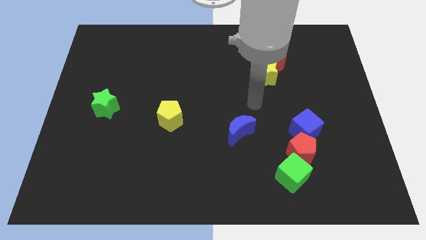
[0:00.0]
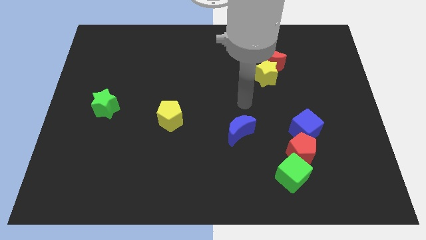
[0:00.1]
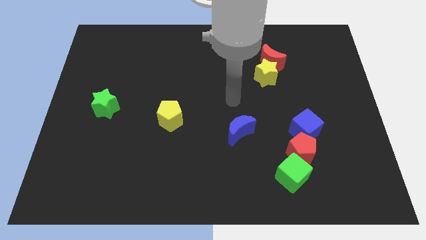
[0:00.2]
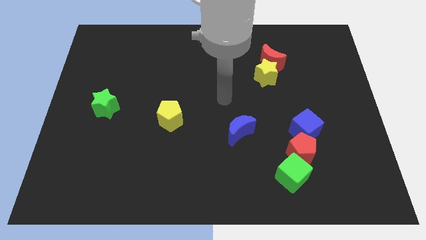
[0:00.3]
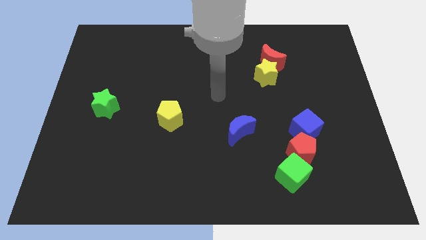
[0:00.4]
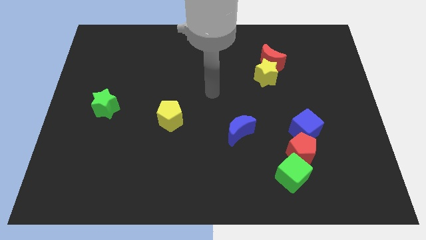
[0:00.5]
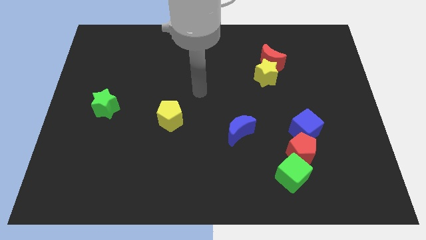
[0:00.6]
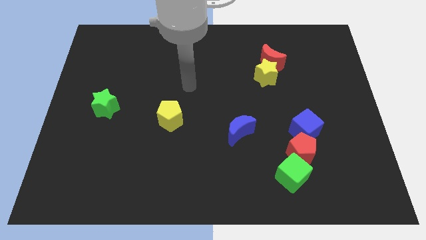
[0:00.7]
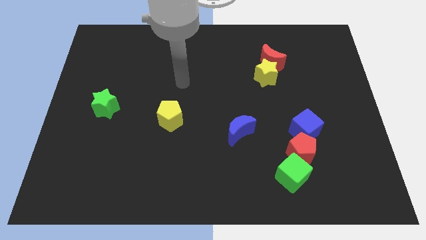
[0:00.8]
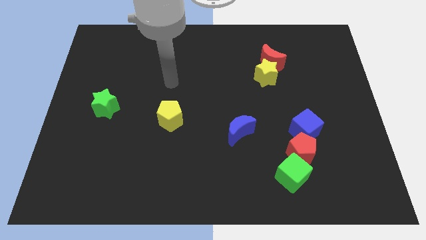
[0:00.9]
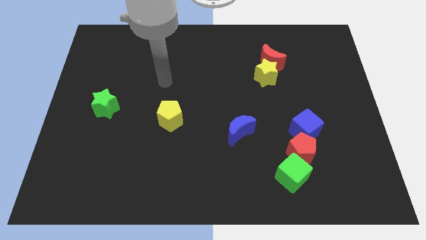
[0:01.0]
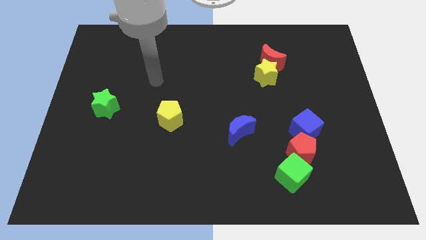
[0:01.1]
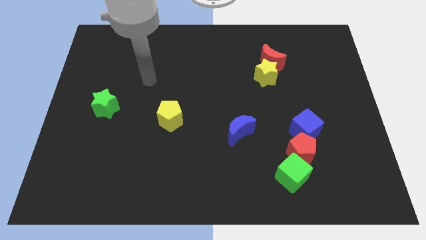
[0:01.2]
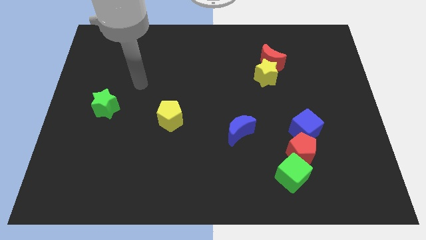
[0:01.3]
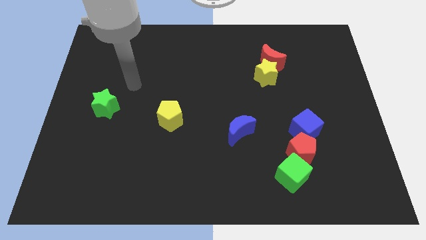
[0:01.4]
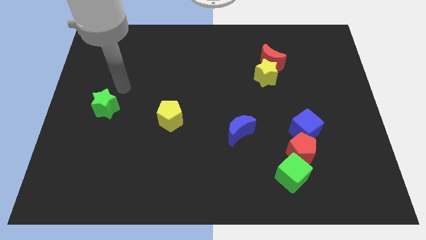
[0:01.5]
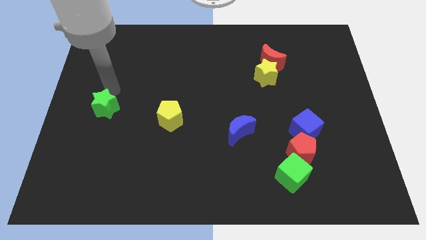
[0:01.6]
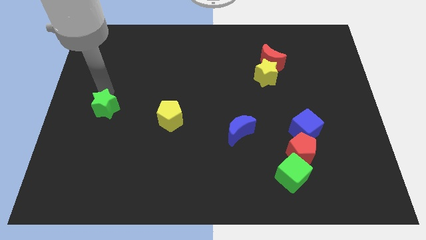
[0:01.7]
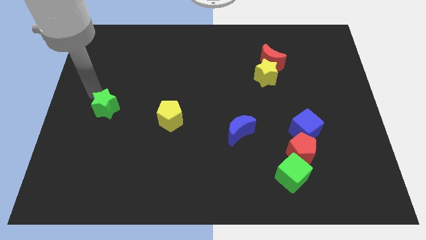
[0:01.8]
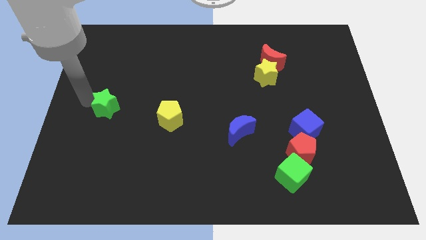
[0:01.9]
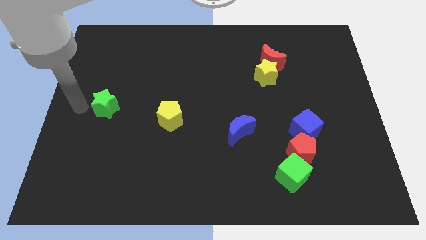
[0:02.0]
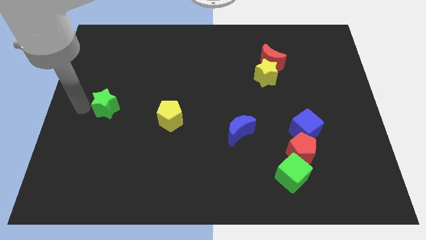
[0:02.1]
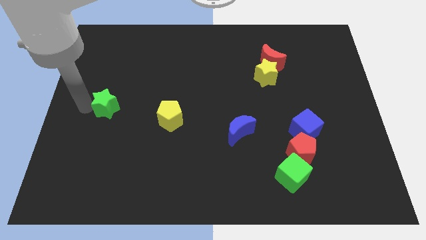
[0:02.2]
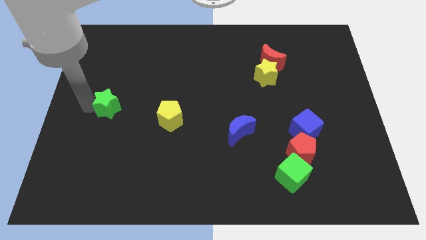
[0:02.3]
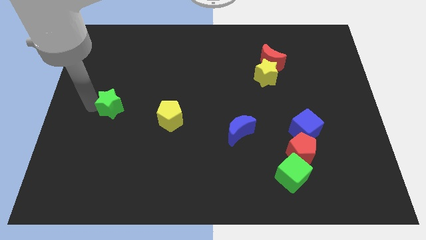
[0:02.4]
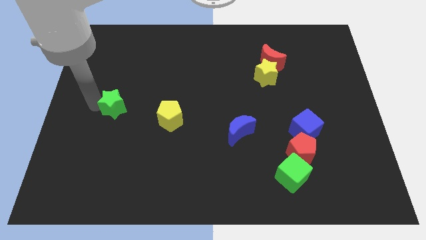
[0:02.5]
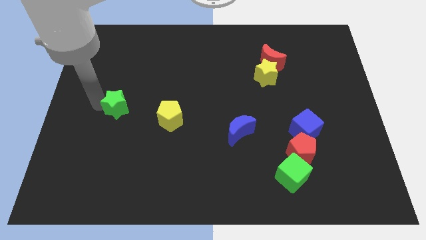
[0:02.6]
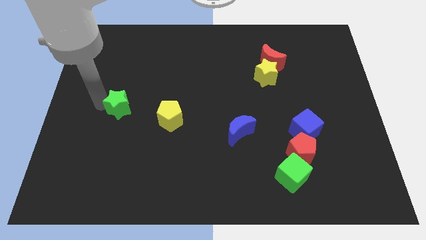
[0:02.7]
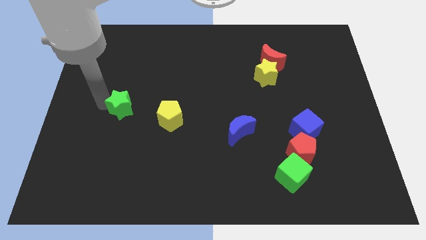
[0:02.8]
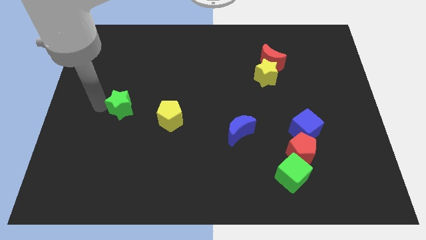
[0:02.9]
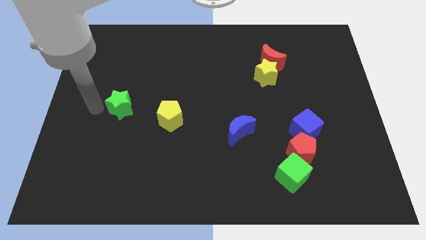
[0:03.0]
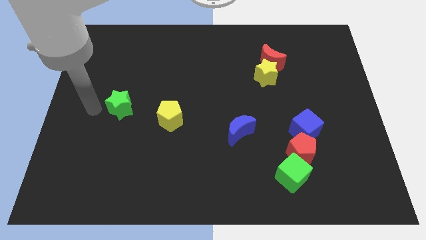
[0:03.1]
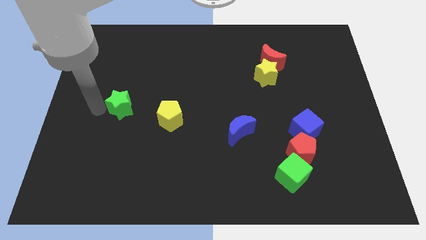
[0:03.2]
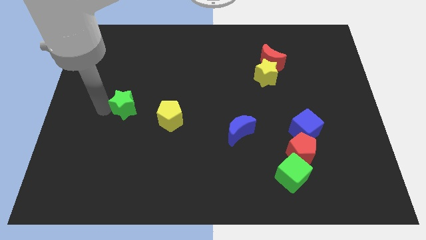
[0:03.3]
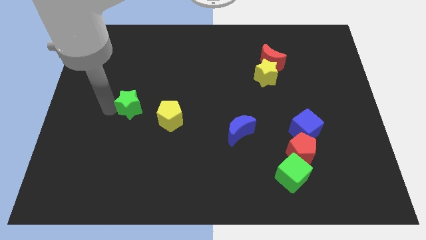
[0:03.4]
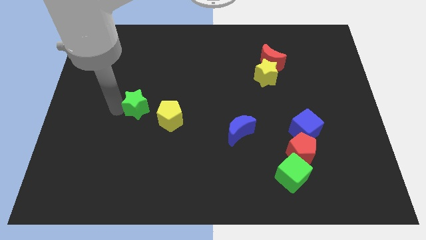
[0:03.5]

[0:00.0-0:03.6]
slide the green star somewhat to the right

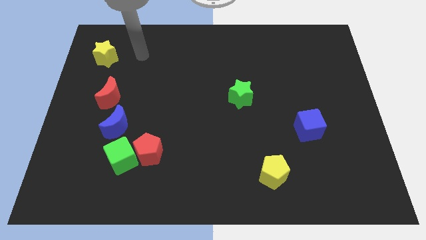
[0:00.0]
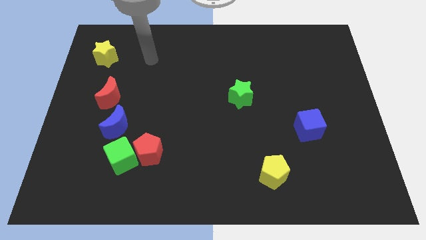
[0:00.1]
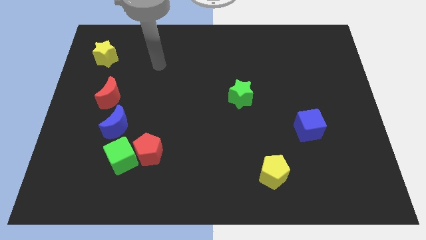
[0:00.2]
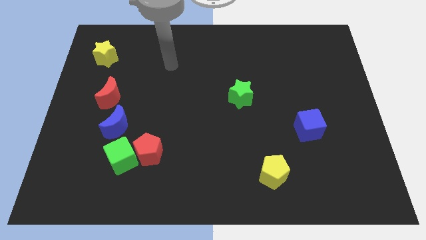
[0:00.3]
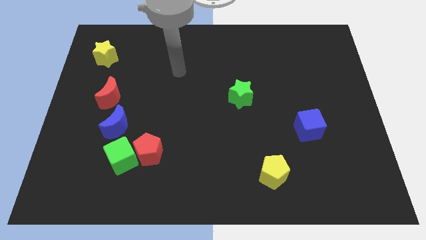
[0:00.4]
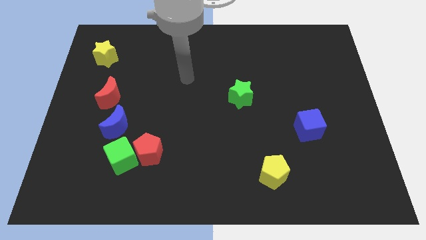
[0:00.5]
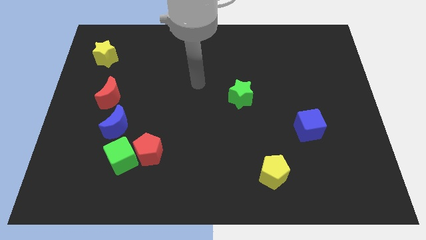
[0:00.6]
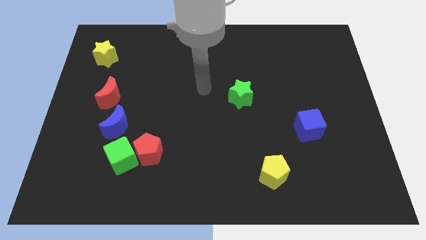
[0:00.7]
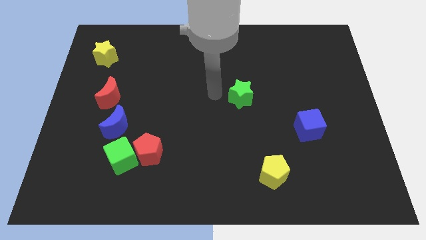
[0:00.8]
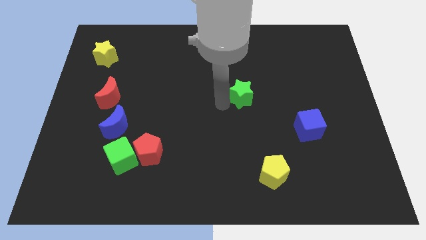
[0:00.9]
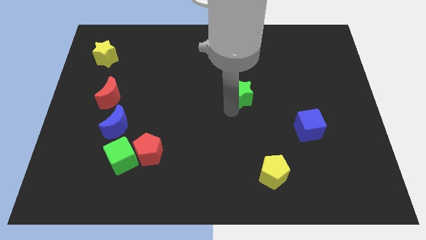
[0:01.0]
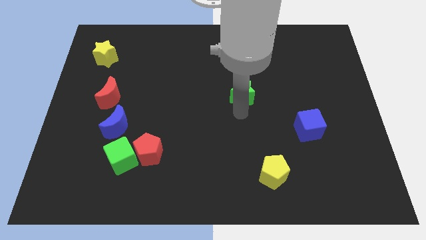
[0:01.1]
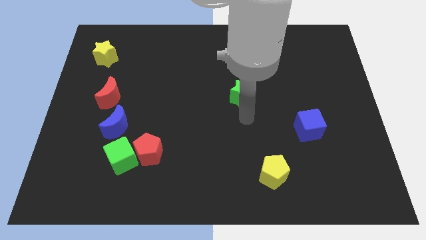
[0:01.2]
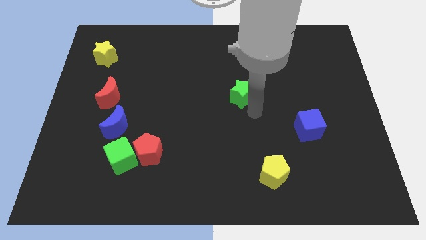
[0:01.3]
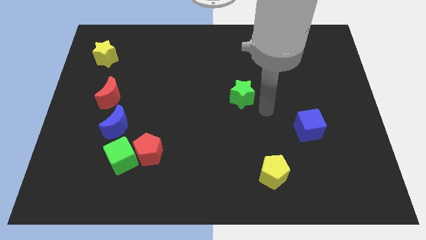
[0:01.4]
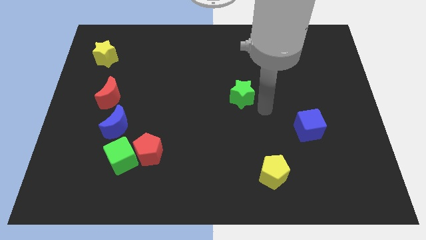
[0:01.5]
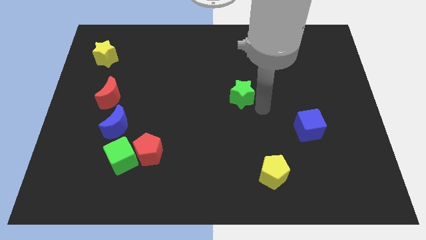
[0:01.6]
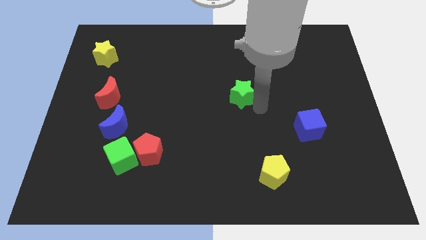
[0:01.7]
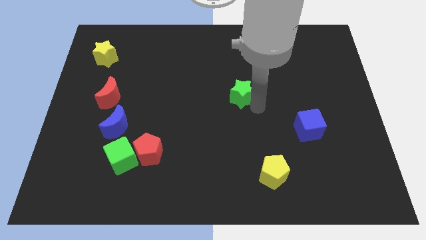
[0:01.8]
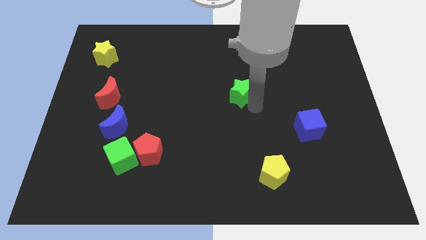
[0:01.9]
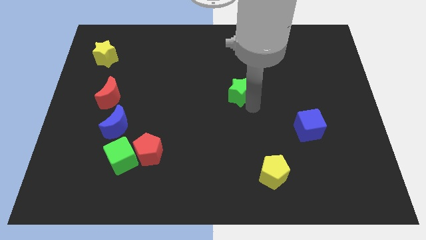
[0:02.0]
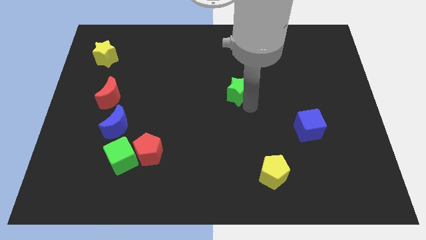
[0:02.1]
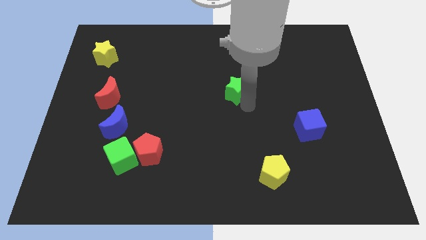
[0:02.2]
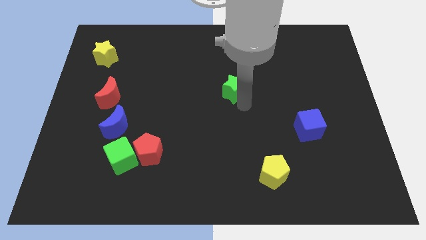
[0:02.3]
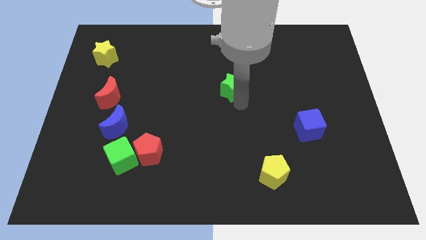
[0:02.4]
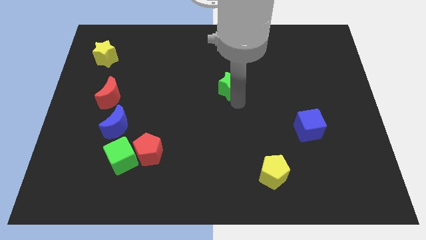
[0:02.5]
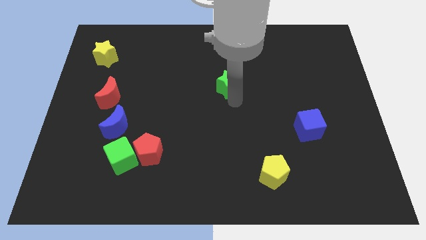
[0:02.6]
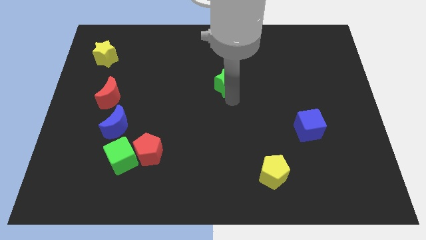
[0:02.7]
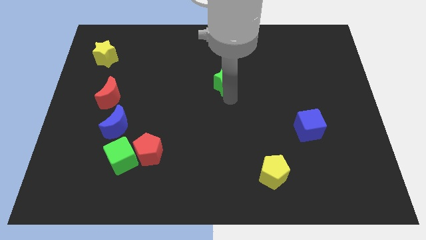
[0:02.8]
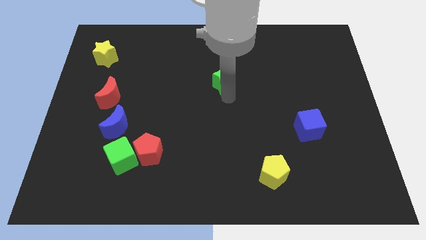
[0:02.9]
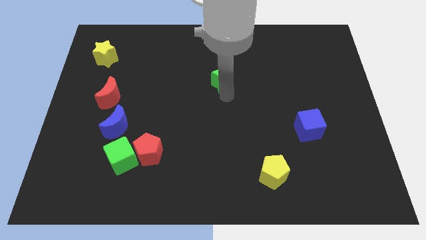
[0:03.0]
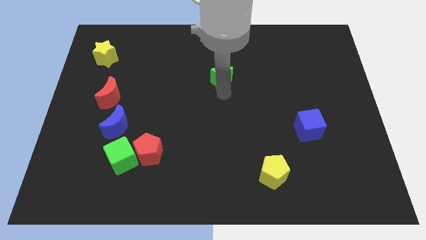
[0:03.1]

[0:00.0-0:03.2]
slightly slide the green star up and to the left diagonally

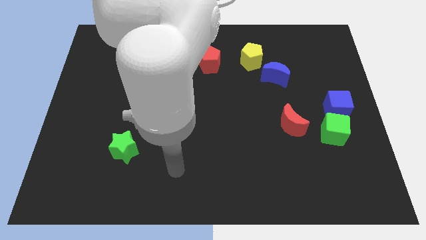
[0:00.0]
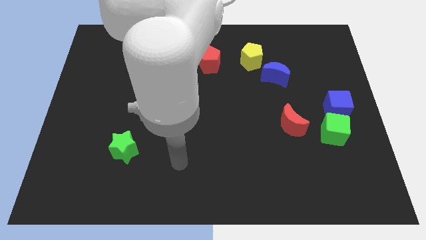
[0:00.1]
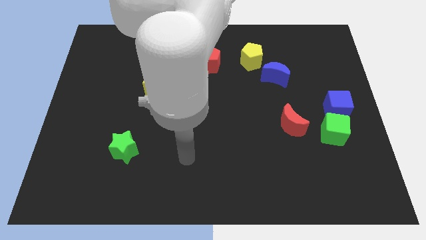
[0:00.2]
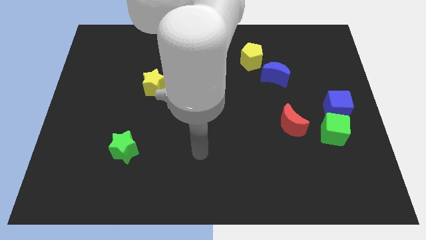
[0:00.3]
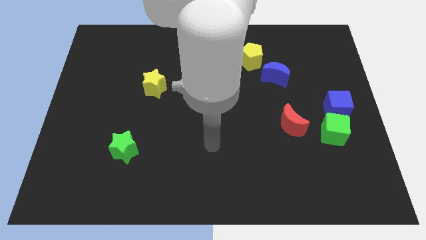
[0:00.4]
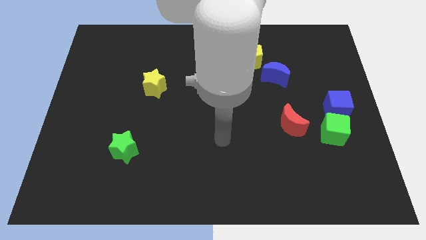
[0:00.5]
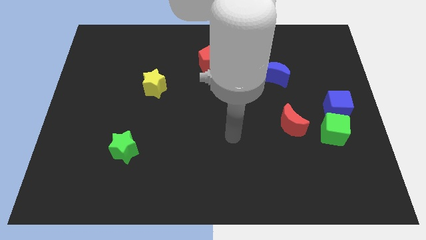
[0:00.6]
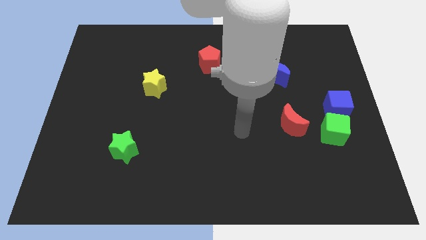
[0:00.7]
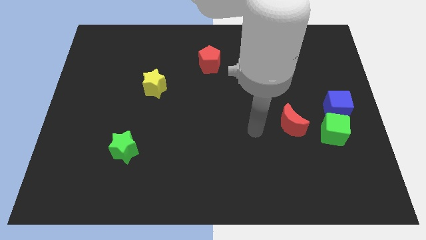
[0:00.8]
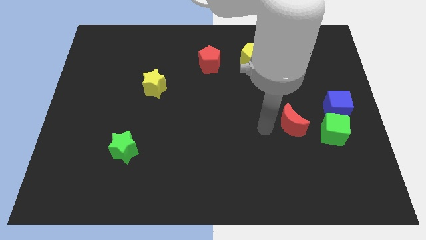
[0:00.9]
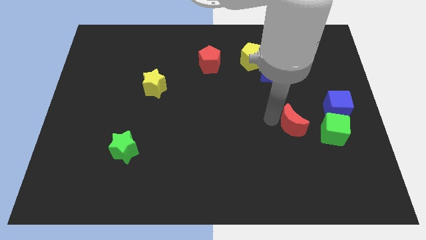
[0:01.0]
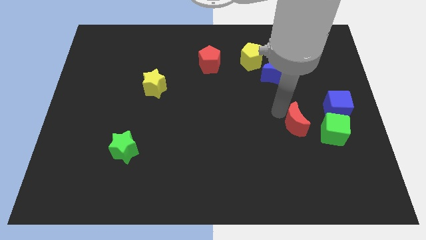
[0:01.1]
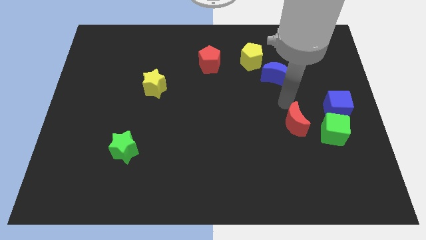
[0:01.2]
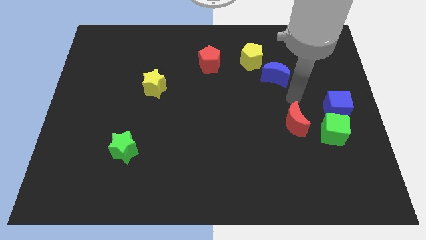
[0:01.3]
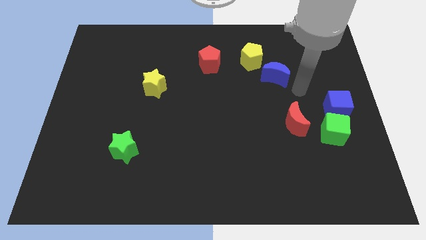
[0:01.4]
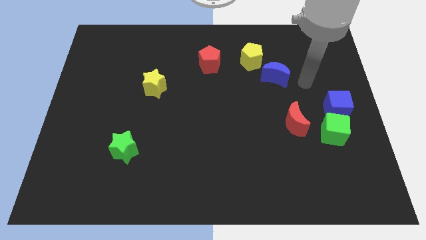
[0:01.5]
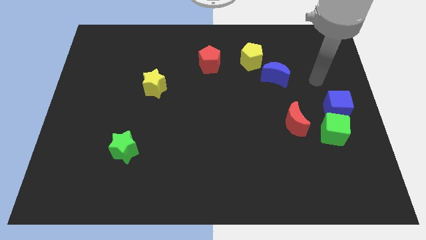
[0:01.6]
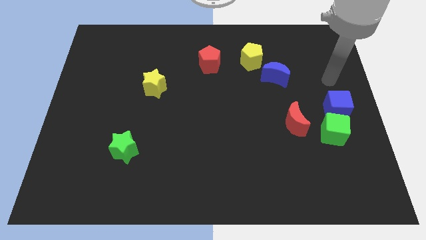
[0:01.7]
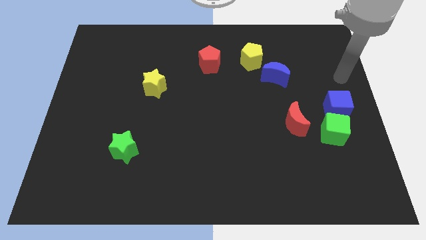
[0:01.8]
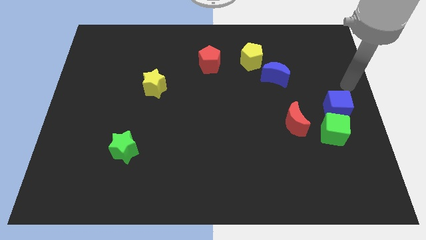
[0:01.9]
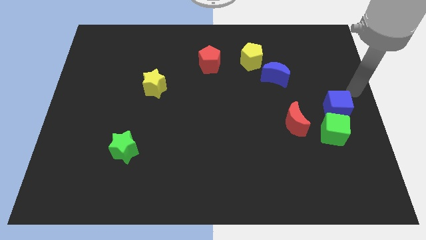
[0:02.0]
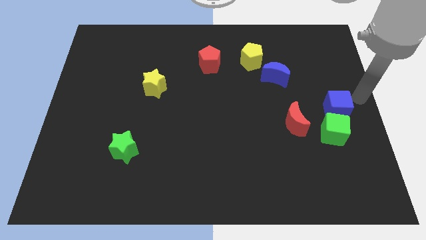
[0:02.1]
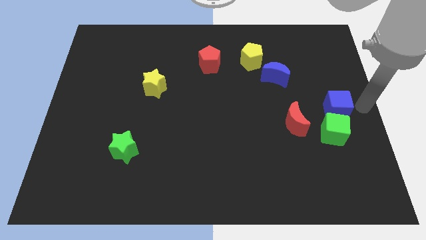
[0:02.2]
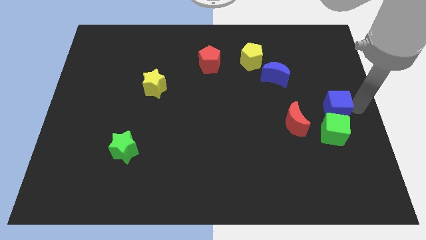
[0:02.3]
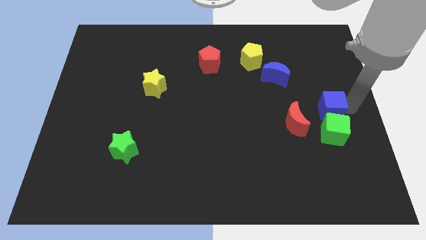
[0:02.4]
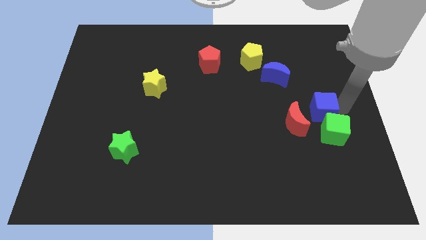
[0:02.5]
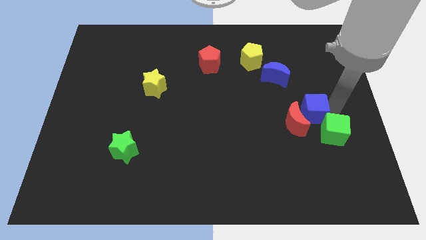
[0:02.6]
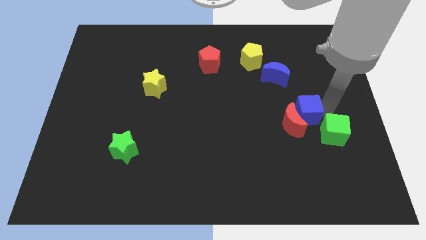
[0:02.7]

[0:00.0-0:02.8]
push the blue cube a little bit left
